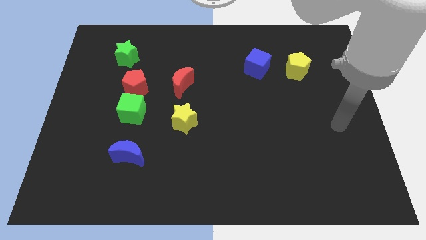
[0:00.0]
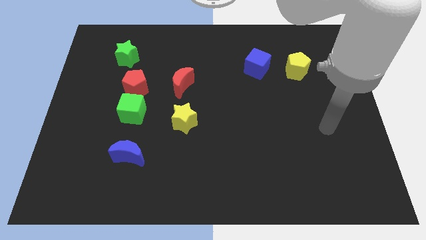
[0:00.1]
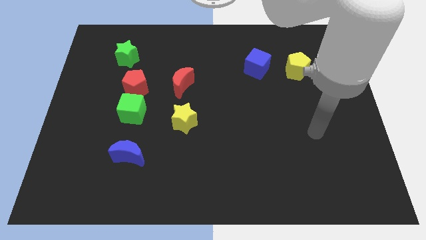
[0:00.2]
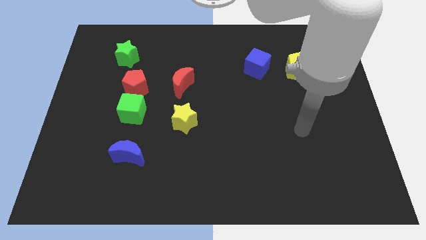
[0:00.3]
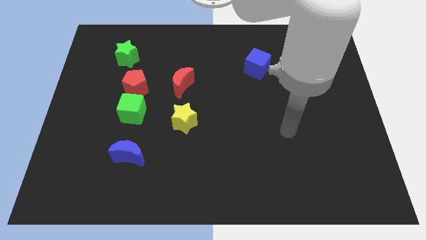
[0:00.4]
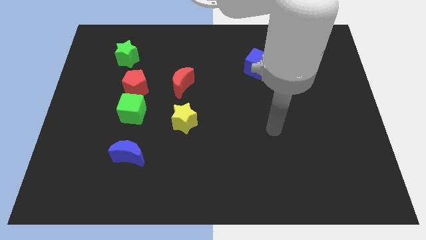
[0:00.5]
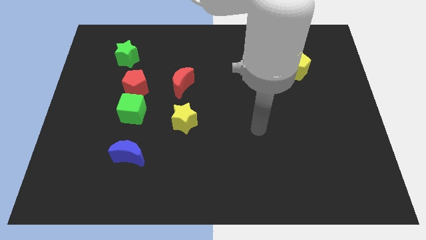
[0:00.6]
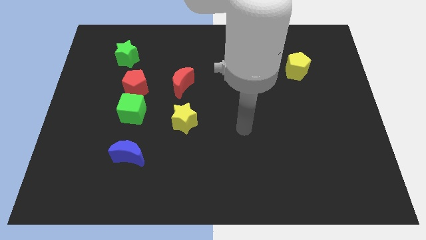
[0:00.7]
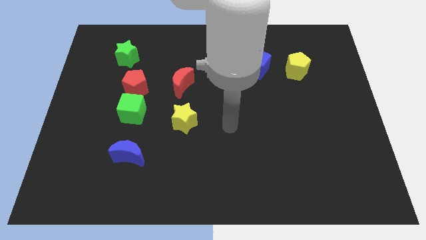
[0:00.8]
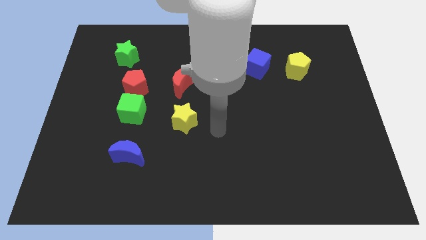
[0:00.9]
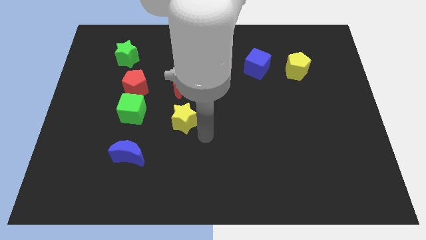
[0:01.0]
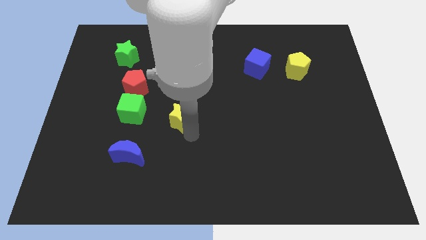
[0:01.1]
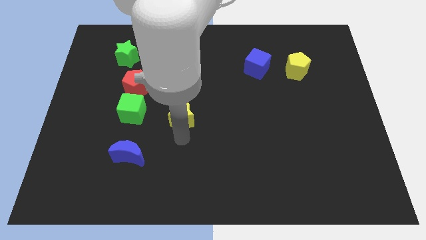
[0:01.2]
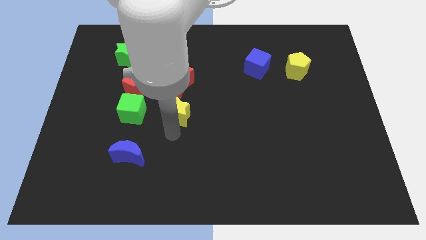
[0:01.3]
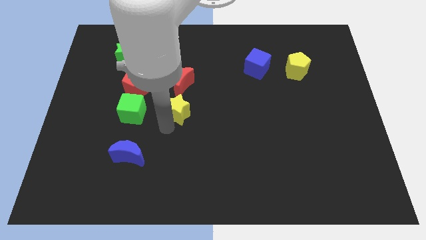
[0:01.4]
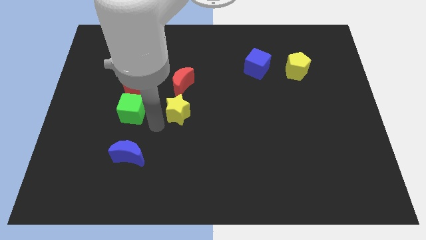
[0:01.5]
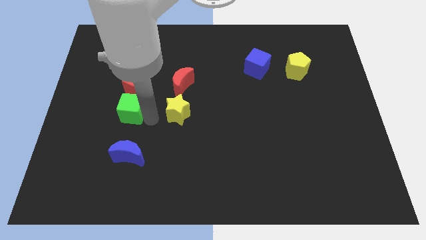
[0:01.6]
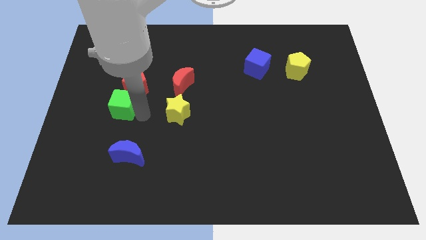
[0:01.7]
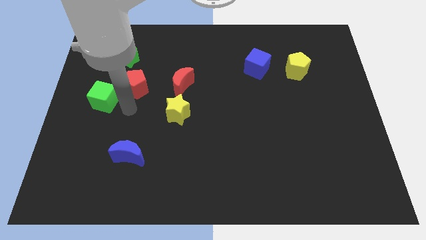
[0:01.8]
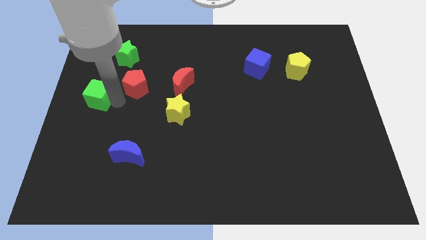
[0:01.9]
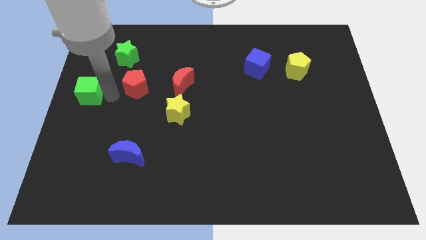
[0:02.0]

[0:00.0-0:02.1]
move the red pentagon away from the green cube

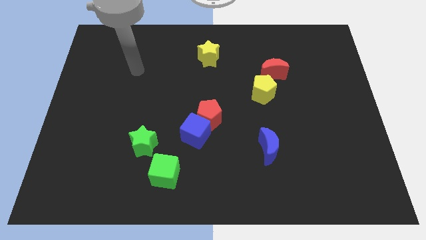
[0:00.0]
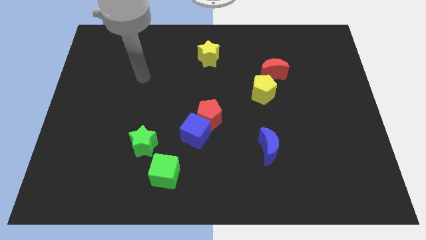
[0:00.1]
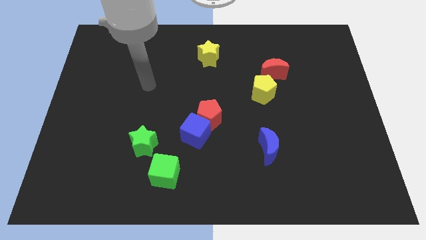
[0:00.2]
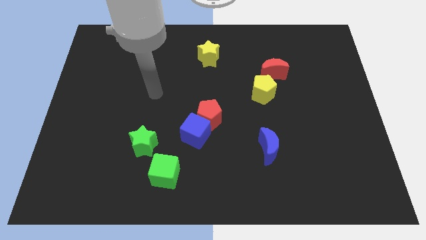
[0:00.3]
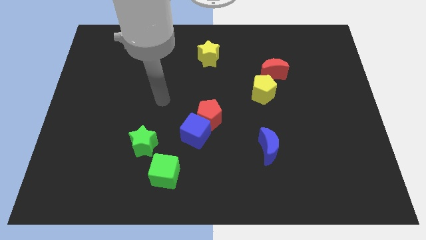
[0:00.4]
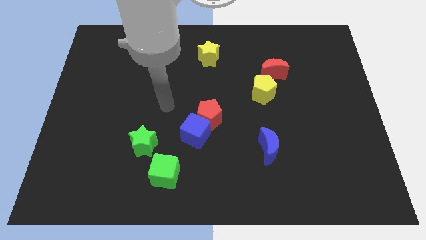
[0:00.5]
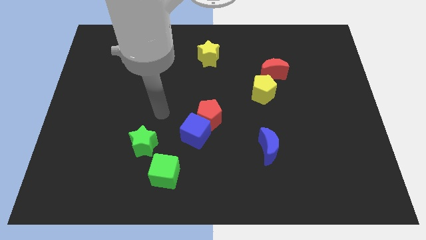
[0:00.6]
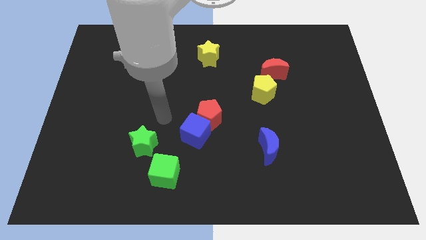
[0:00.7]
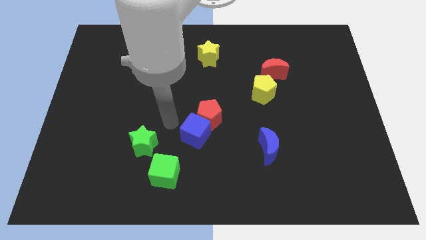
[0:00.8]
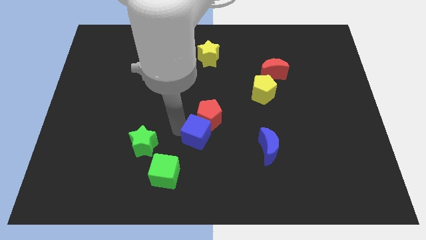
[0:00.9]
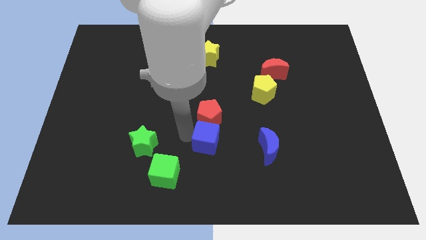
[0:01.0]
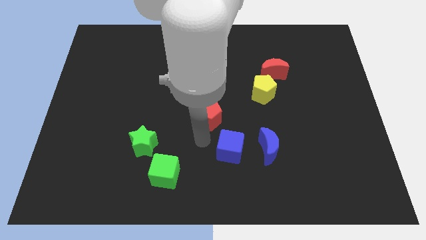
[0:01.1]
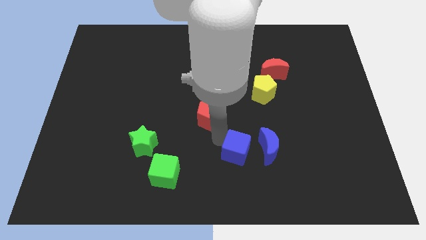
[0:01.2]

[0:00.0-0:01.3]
move the red pentagon away from the blue cube

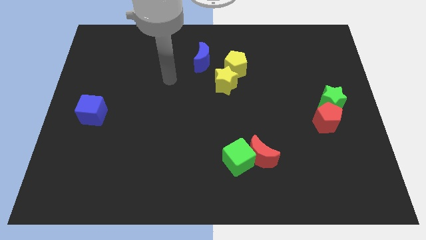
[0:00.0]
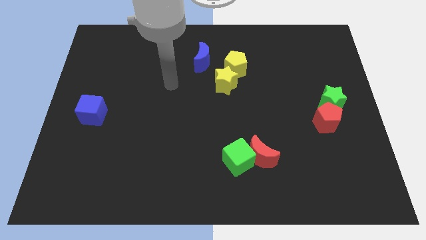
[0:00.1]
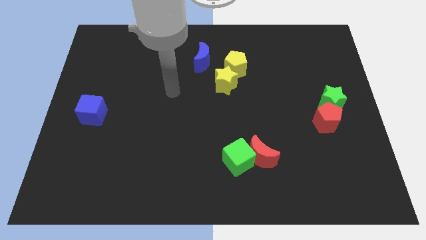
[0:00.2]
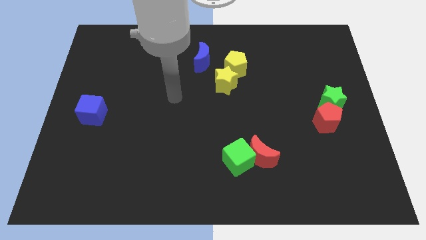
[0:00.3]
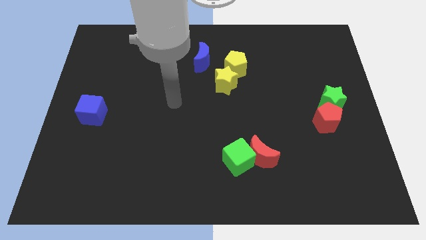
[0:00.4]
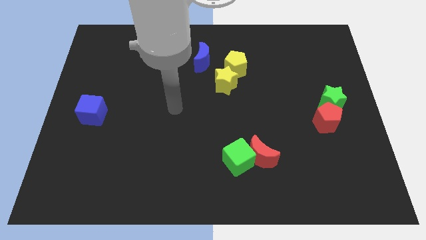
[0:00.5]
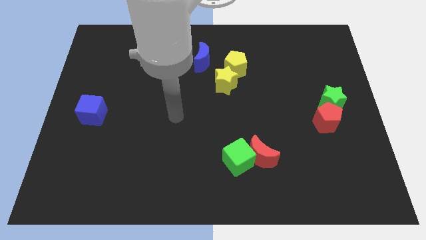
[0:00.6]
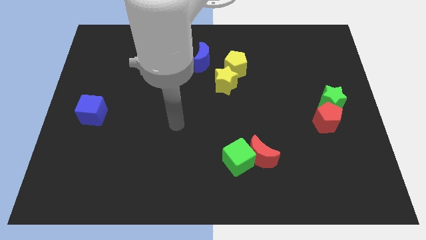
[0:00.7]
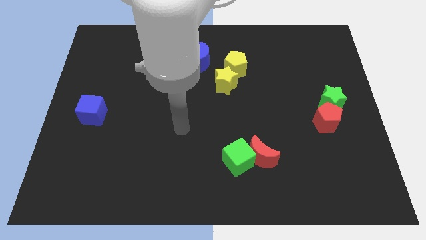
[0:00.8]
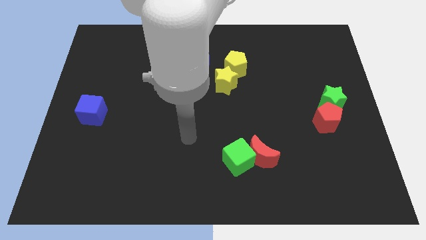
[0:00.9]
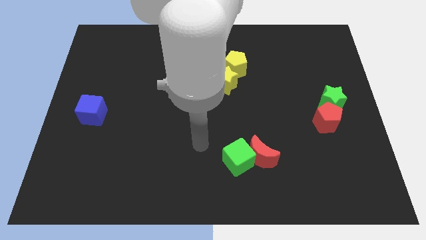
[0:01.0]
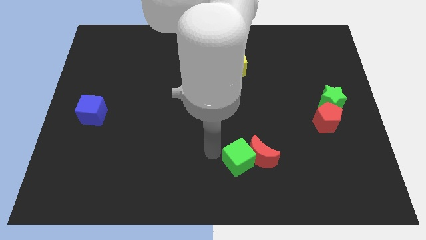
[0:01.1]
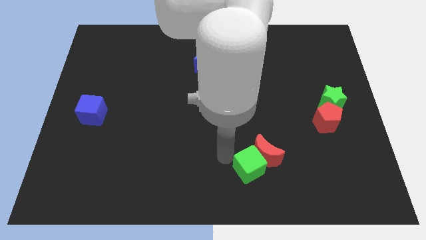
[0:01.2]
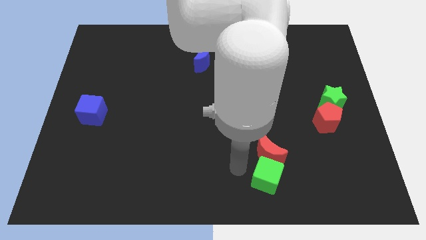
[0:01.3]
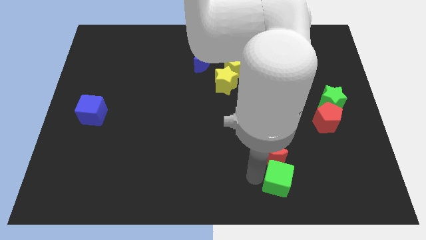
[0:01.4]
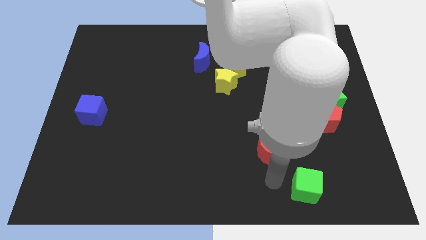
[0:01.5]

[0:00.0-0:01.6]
move the red moon away from the green cube

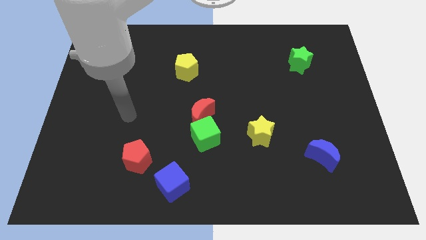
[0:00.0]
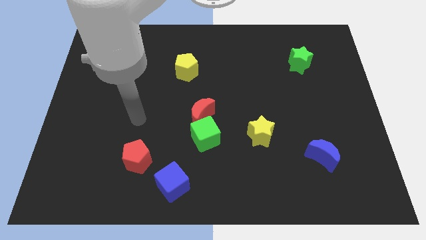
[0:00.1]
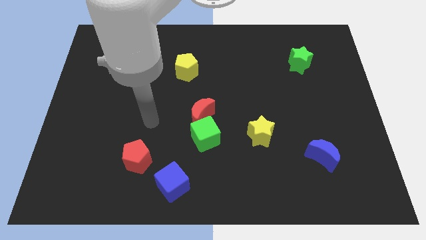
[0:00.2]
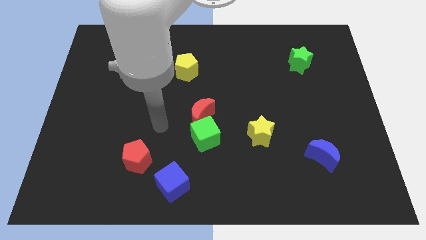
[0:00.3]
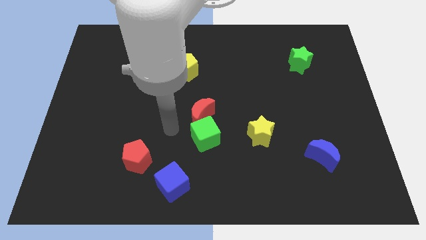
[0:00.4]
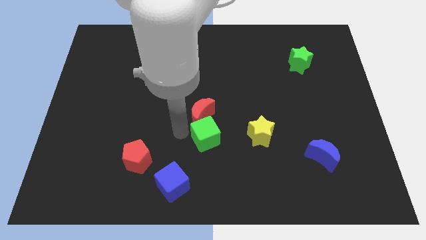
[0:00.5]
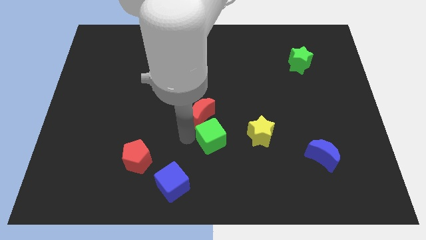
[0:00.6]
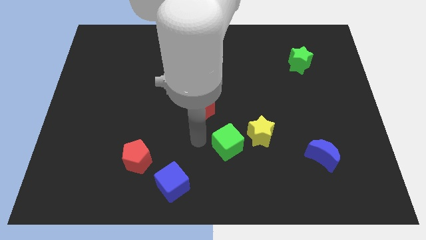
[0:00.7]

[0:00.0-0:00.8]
pull the red moon apart from the green cube

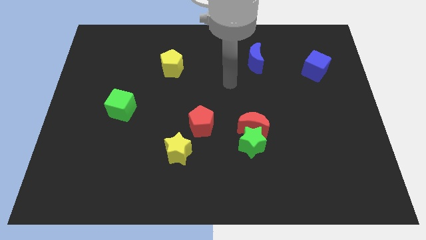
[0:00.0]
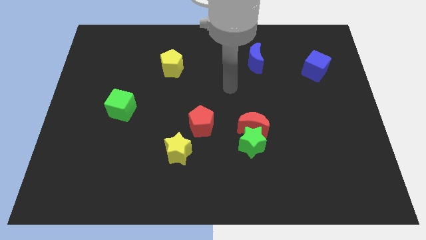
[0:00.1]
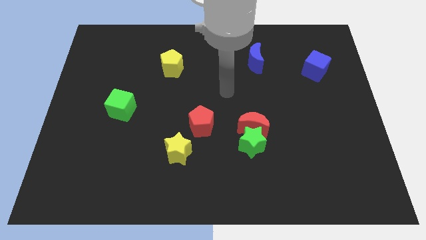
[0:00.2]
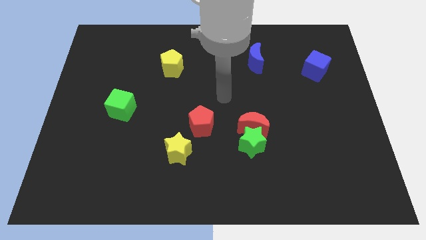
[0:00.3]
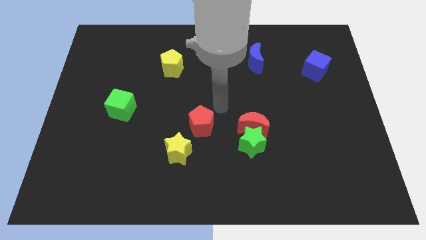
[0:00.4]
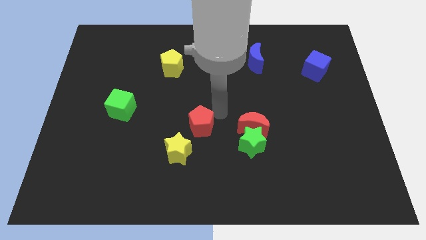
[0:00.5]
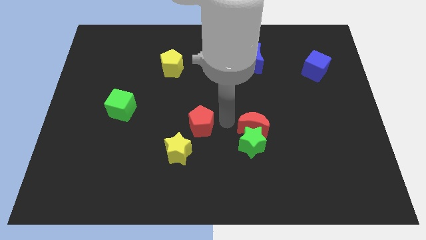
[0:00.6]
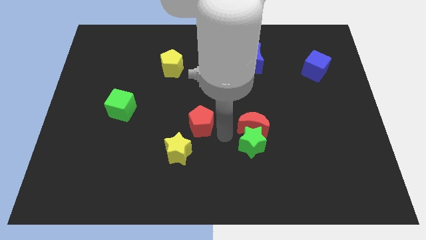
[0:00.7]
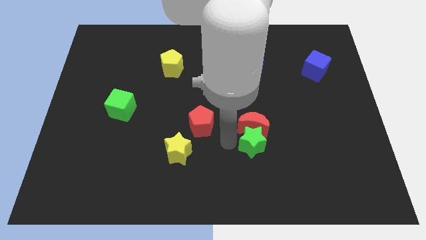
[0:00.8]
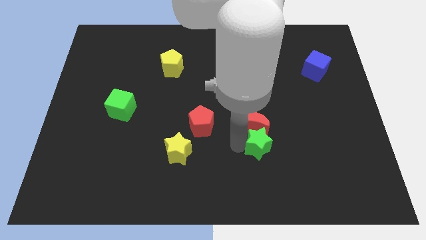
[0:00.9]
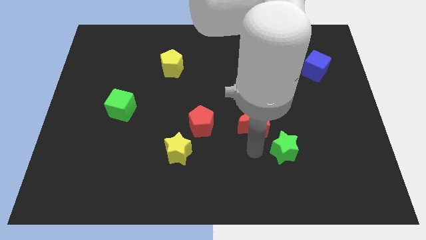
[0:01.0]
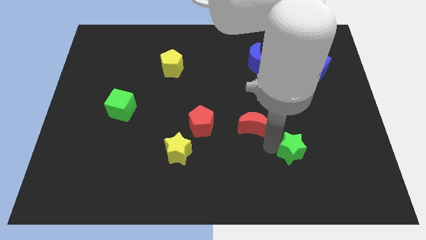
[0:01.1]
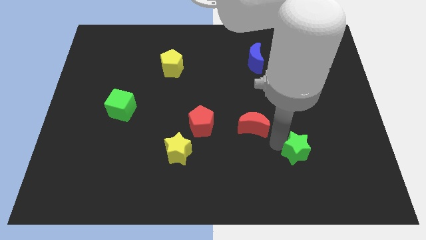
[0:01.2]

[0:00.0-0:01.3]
move the red moon away from the green star

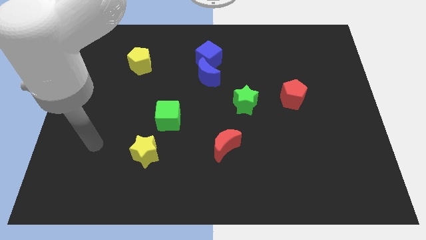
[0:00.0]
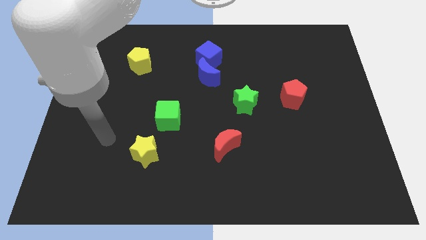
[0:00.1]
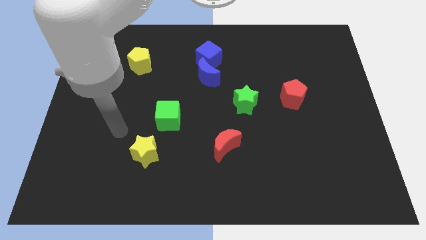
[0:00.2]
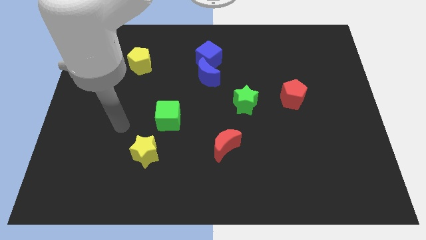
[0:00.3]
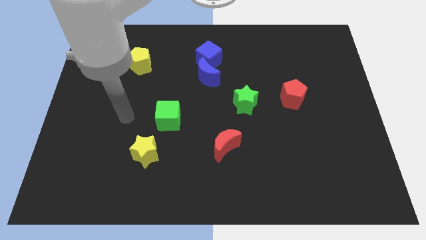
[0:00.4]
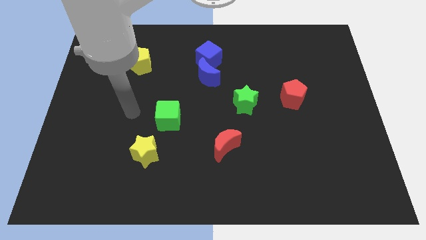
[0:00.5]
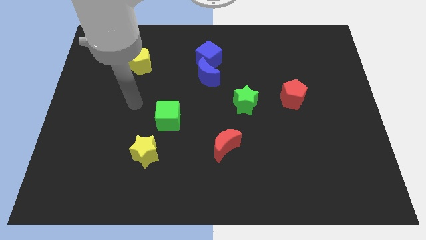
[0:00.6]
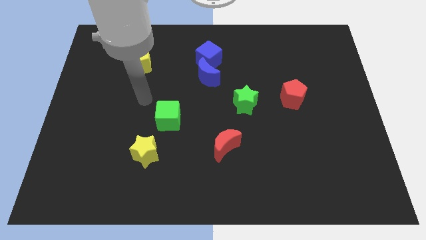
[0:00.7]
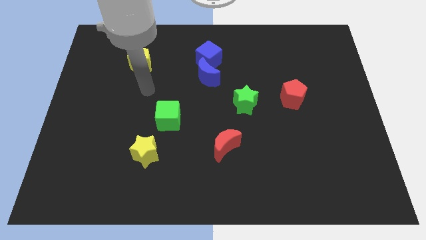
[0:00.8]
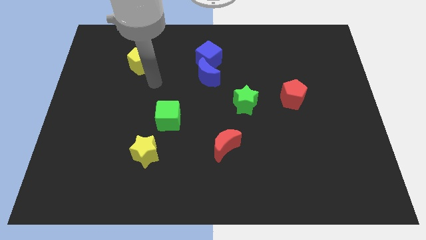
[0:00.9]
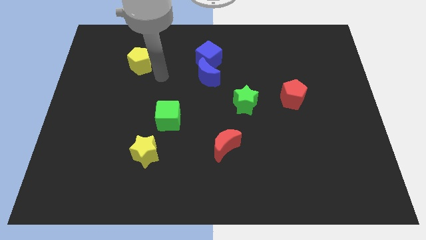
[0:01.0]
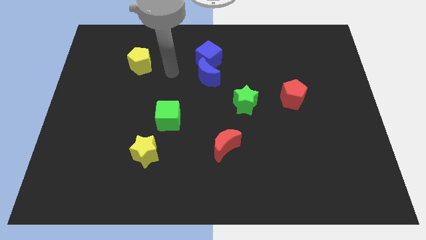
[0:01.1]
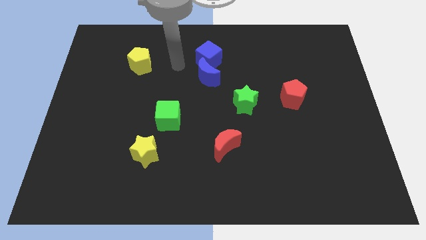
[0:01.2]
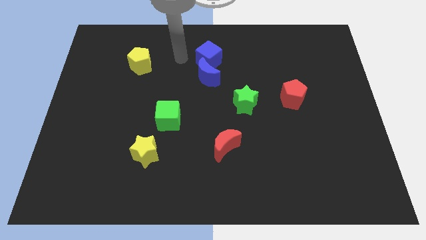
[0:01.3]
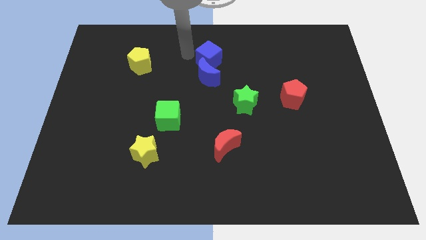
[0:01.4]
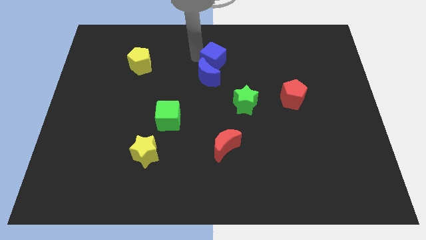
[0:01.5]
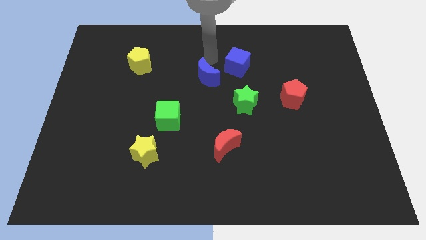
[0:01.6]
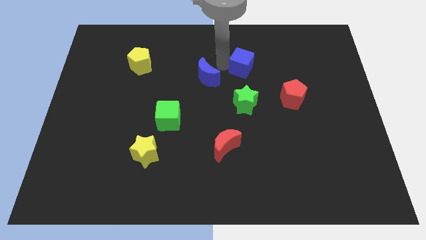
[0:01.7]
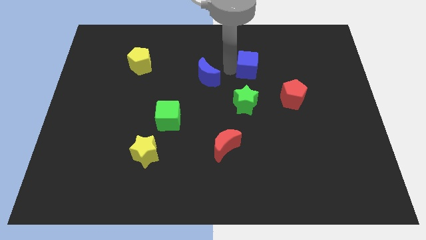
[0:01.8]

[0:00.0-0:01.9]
pull the blue moon apart from the blue cube

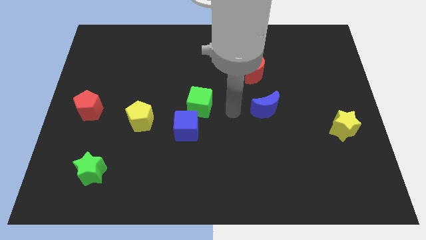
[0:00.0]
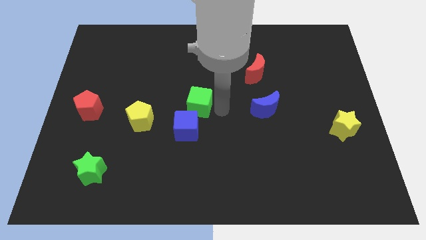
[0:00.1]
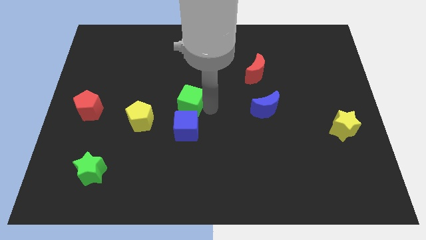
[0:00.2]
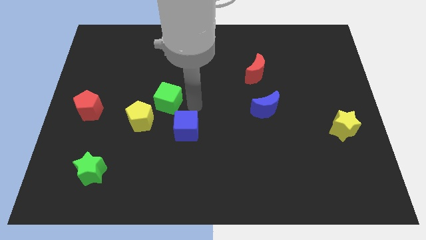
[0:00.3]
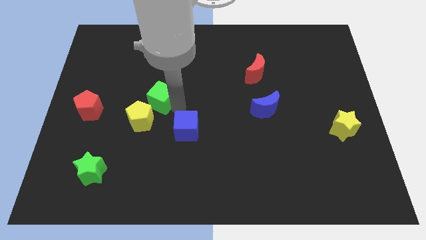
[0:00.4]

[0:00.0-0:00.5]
separate the blue cube from the green cube

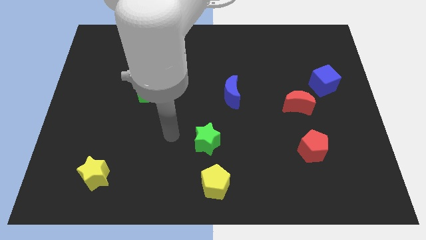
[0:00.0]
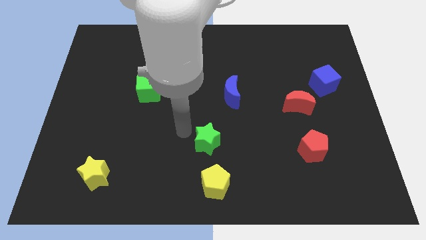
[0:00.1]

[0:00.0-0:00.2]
pull the red moon apart from the blue cube
